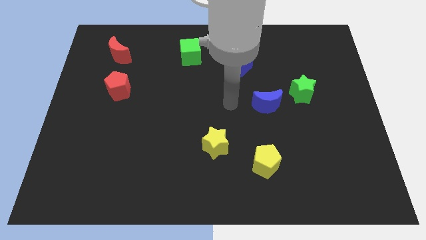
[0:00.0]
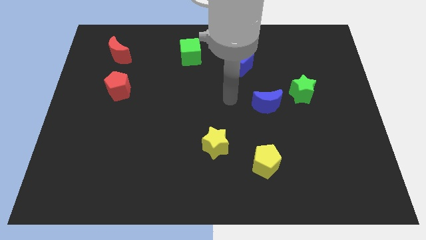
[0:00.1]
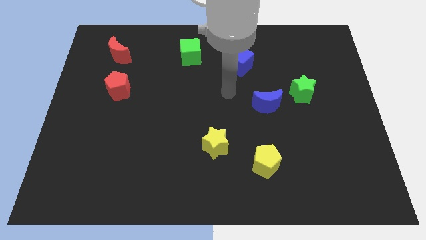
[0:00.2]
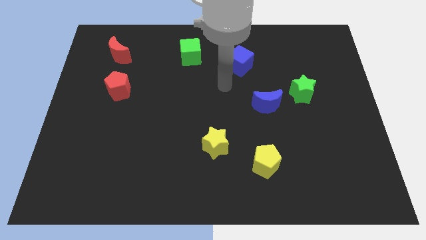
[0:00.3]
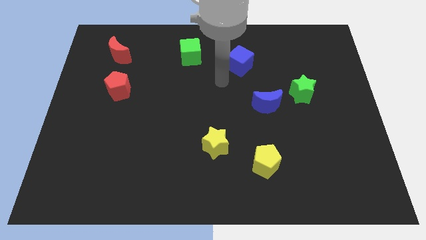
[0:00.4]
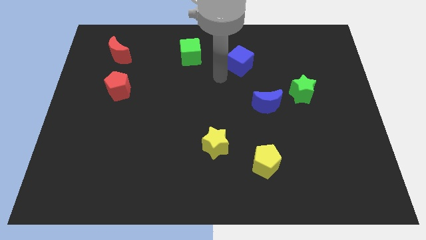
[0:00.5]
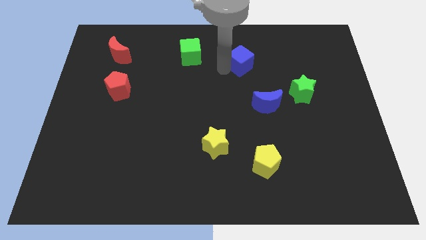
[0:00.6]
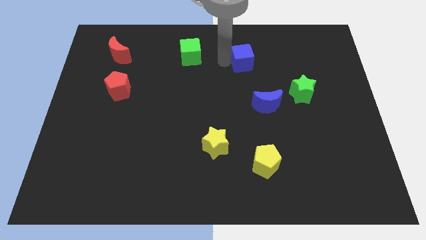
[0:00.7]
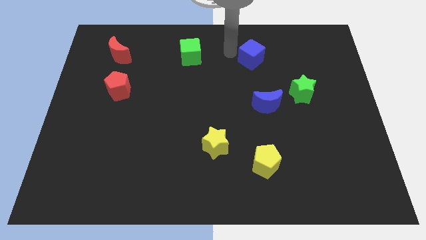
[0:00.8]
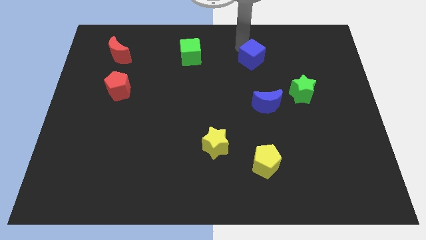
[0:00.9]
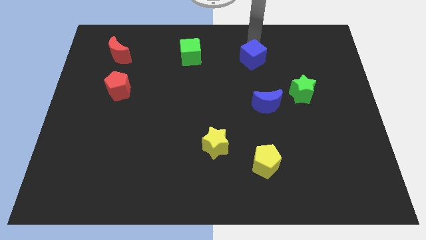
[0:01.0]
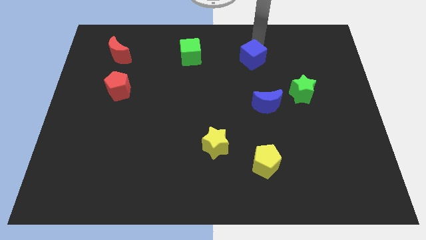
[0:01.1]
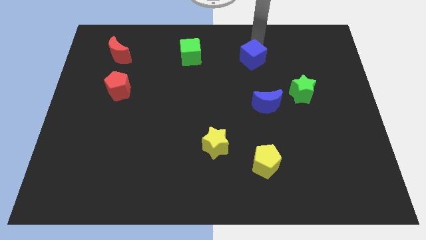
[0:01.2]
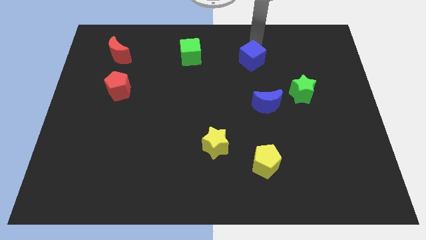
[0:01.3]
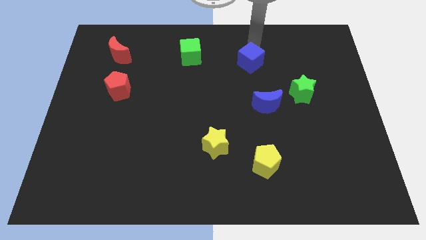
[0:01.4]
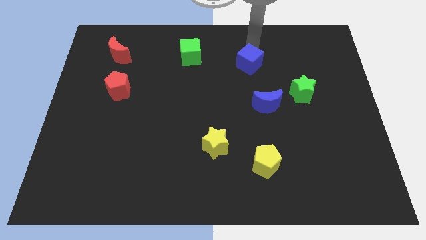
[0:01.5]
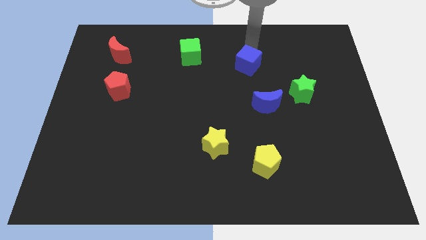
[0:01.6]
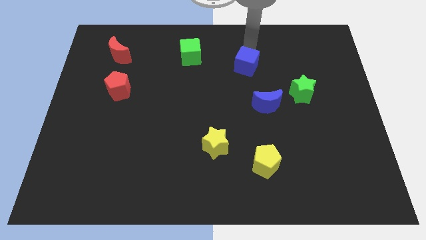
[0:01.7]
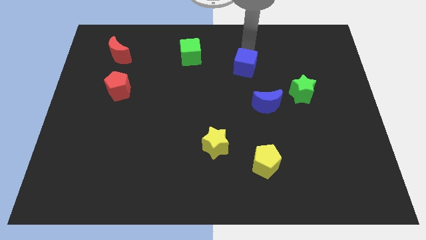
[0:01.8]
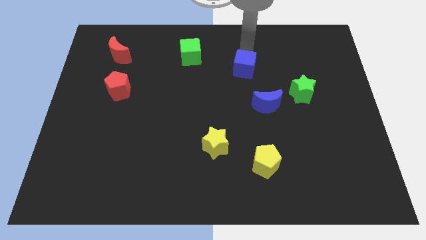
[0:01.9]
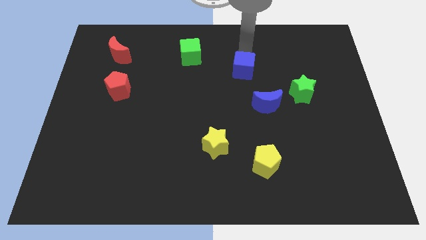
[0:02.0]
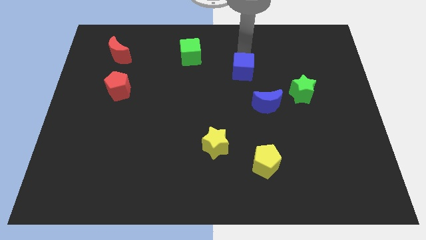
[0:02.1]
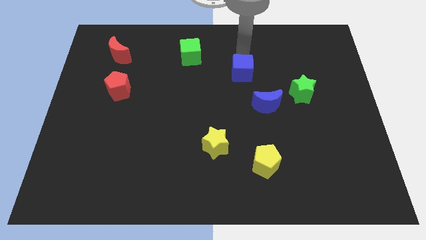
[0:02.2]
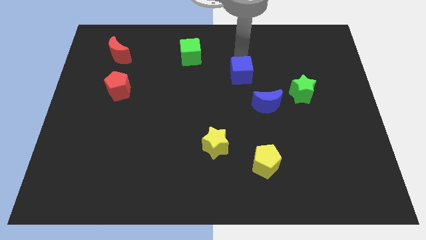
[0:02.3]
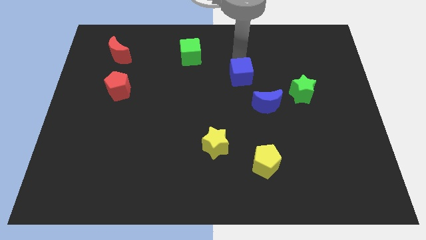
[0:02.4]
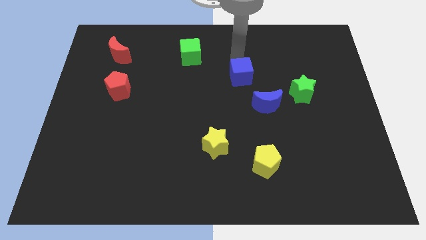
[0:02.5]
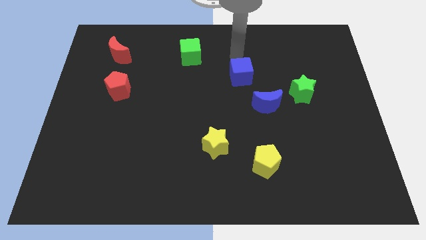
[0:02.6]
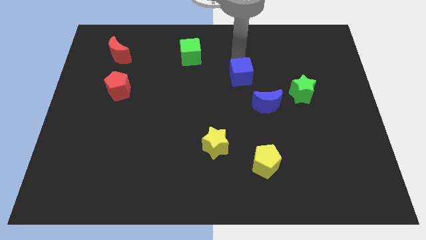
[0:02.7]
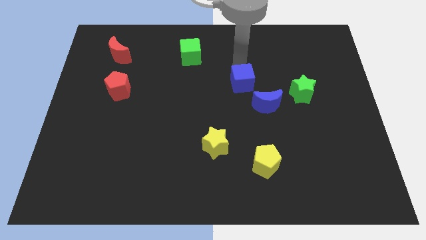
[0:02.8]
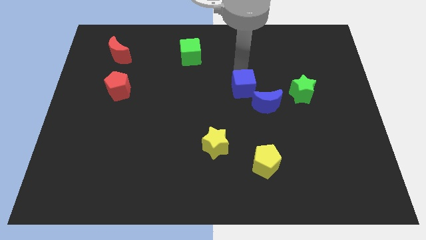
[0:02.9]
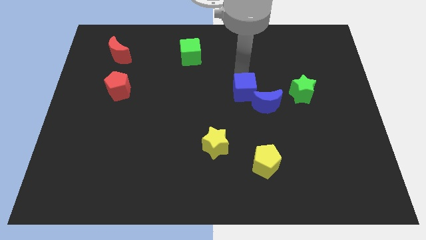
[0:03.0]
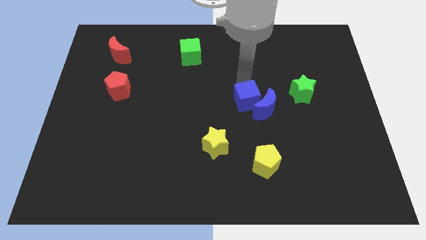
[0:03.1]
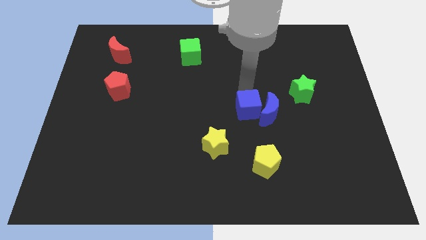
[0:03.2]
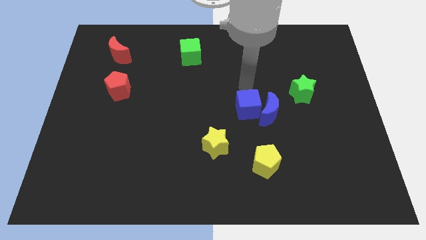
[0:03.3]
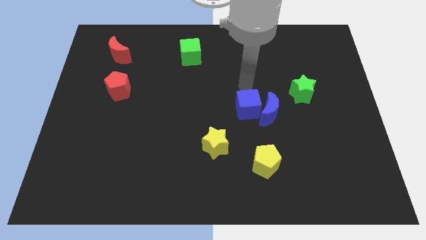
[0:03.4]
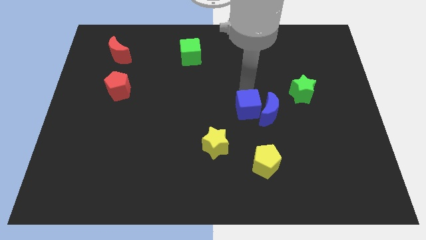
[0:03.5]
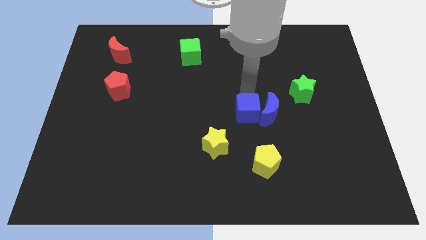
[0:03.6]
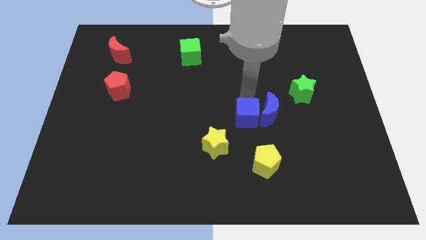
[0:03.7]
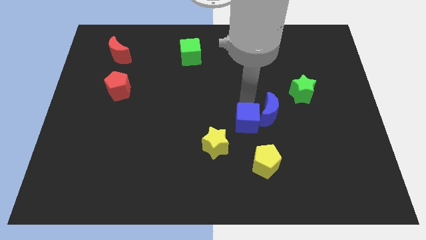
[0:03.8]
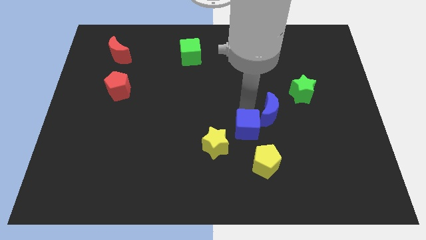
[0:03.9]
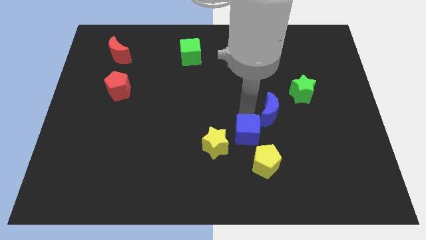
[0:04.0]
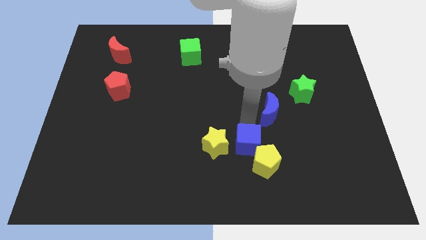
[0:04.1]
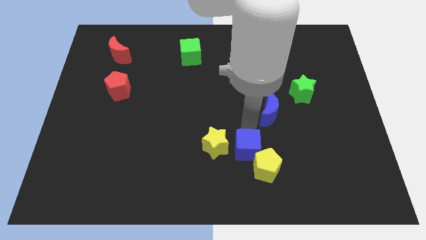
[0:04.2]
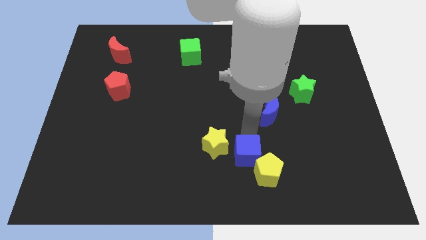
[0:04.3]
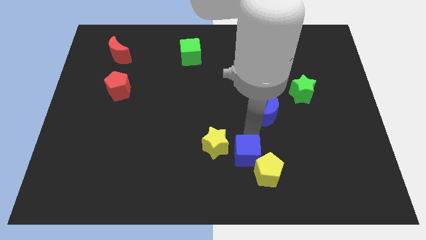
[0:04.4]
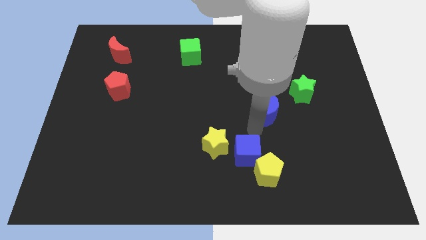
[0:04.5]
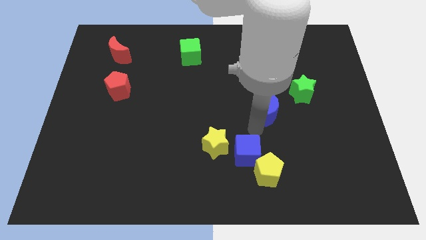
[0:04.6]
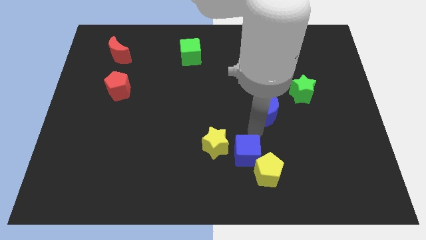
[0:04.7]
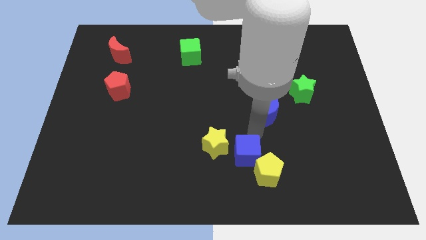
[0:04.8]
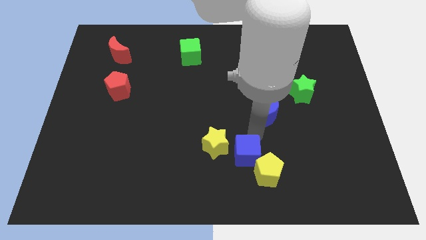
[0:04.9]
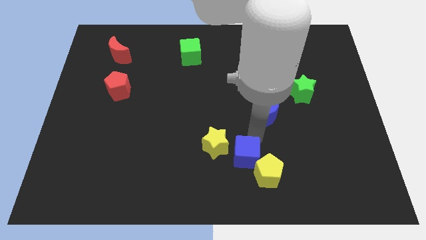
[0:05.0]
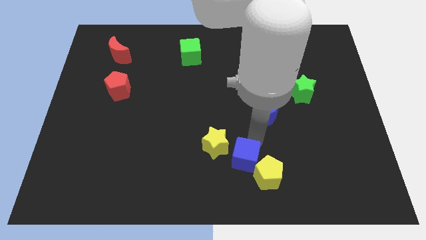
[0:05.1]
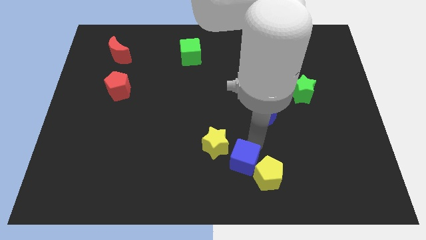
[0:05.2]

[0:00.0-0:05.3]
move the blue cube to the bottom

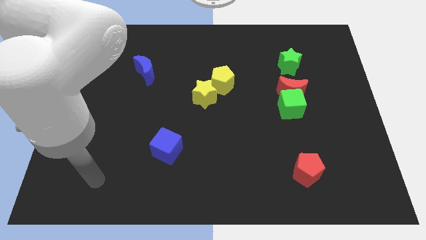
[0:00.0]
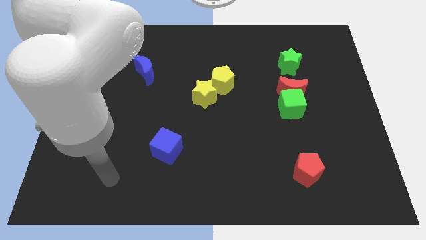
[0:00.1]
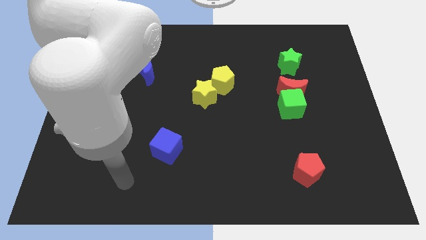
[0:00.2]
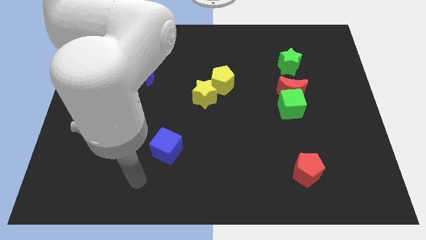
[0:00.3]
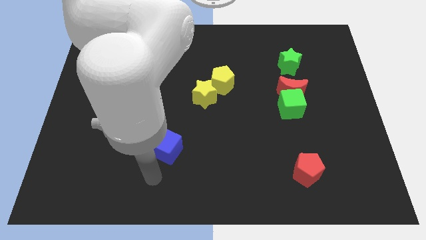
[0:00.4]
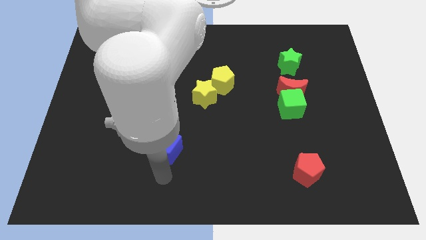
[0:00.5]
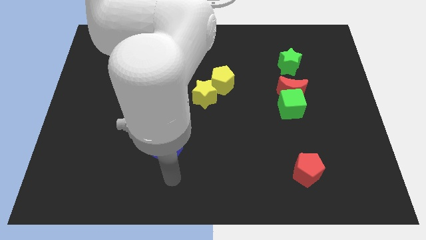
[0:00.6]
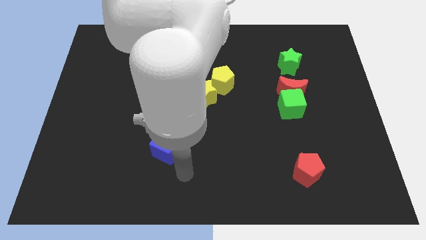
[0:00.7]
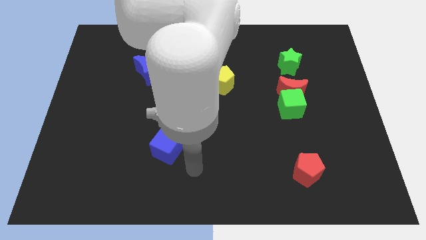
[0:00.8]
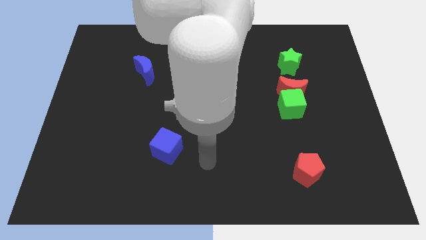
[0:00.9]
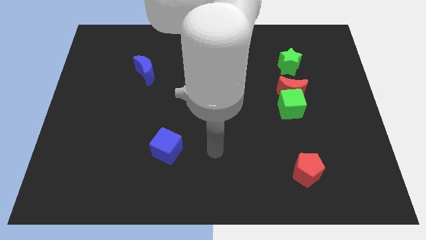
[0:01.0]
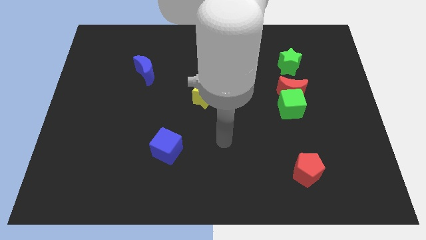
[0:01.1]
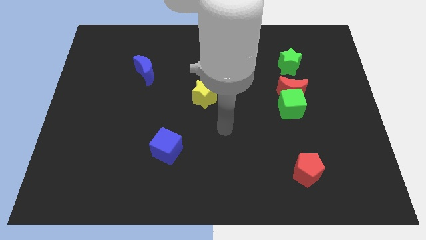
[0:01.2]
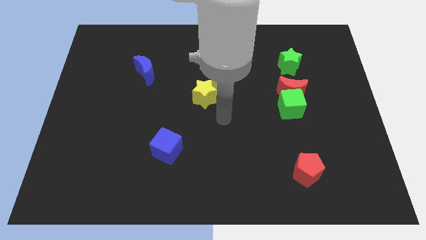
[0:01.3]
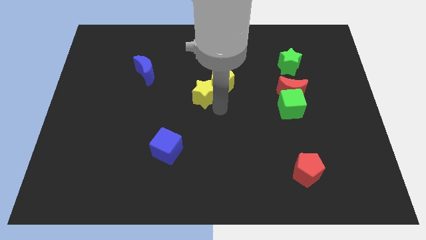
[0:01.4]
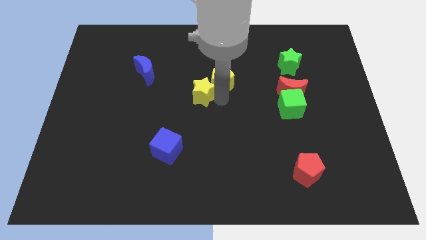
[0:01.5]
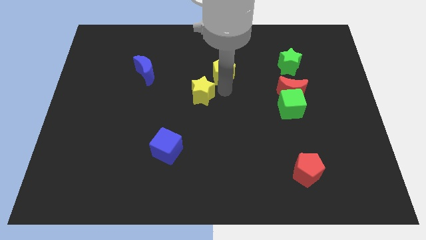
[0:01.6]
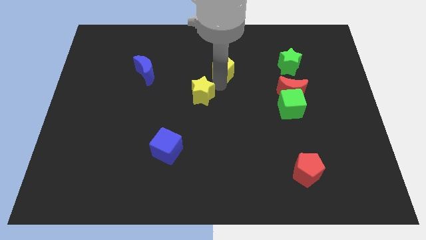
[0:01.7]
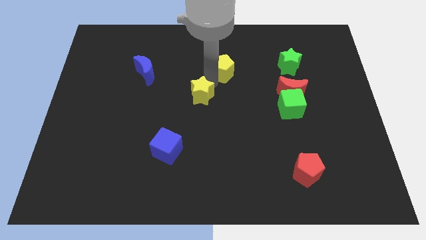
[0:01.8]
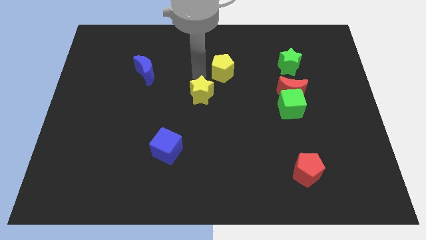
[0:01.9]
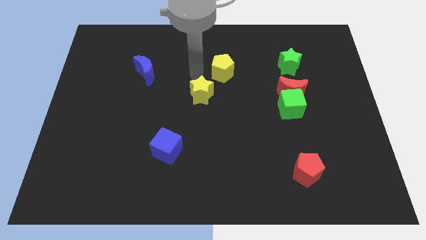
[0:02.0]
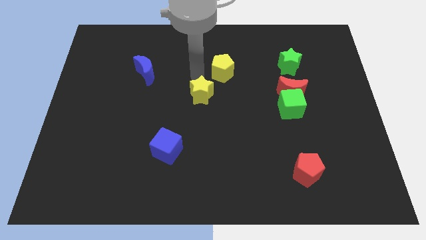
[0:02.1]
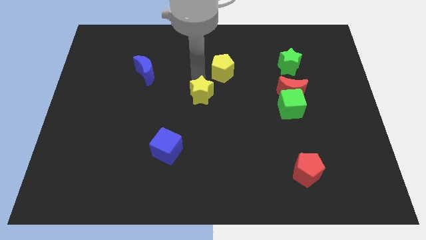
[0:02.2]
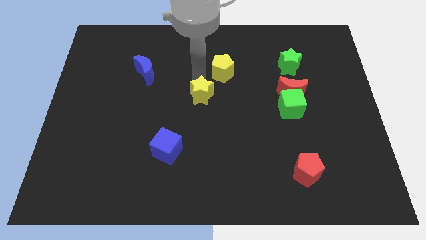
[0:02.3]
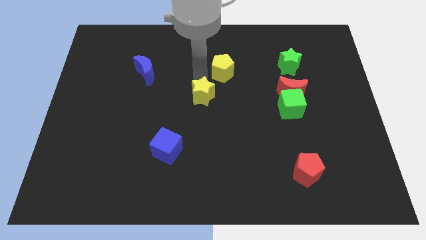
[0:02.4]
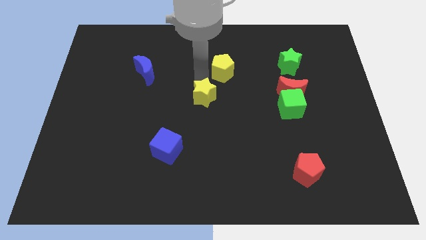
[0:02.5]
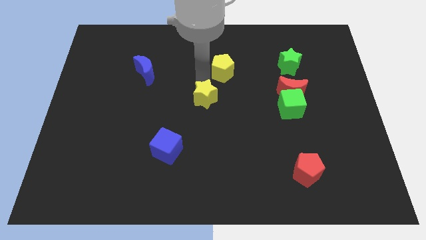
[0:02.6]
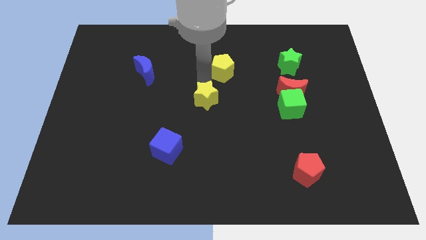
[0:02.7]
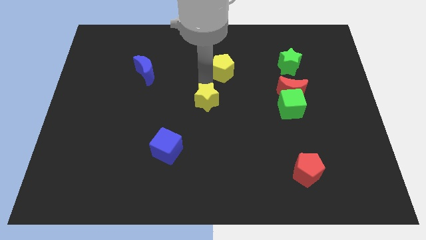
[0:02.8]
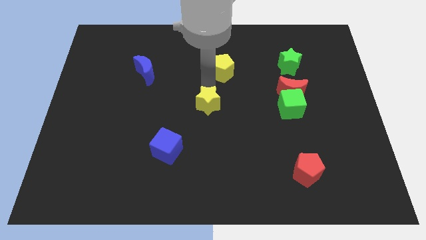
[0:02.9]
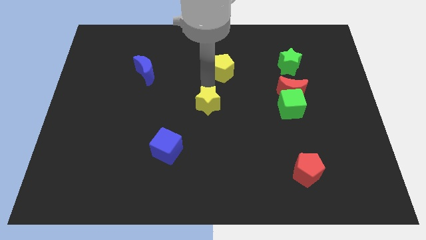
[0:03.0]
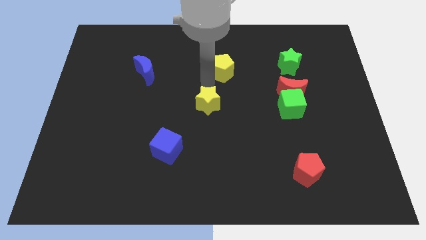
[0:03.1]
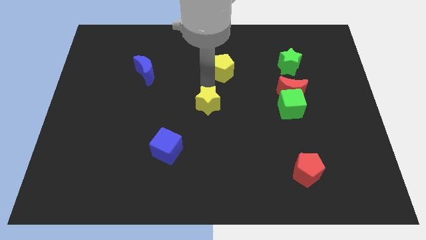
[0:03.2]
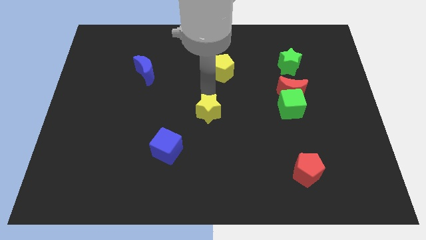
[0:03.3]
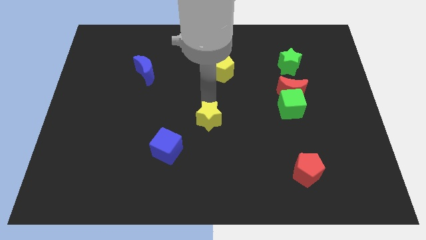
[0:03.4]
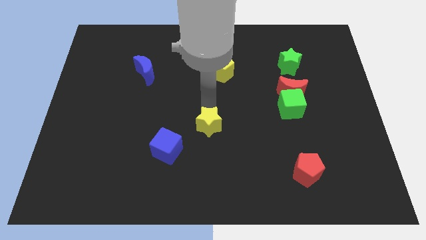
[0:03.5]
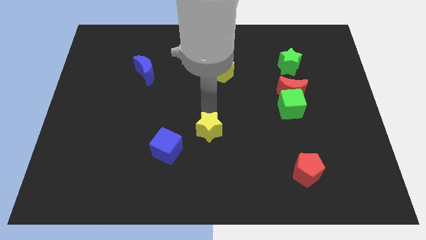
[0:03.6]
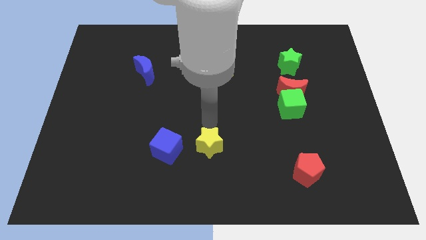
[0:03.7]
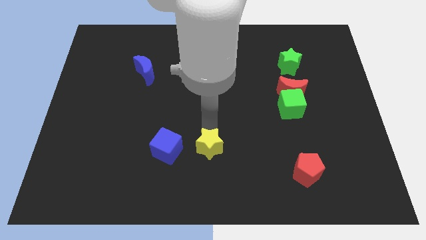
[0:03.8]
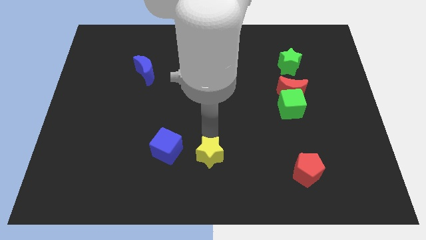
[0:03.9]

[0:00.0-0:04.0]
move the yellow star to the bottom
